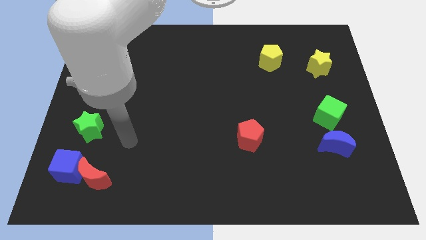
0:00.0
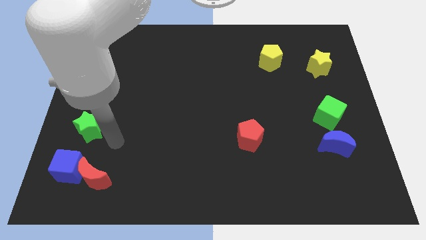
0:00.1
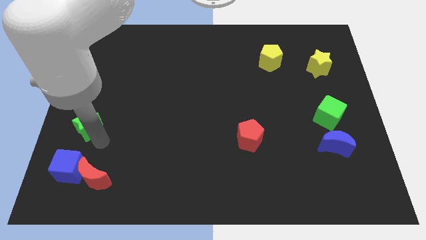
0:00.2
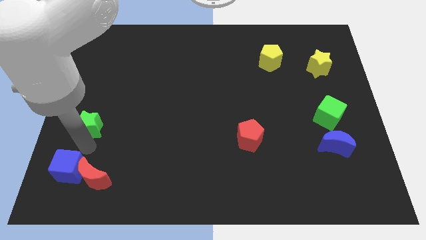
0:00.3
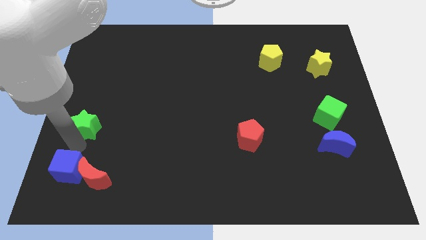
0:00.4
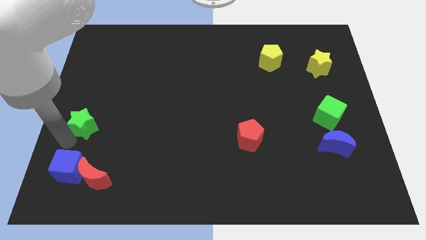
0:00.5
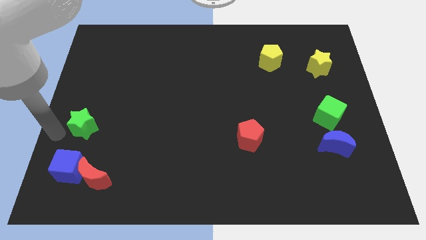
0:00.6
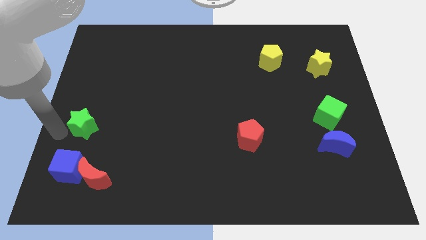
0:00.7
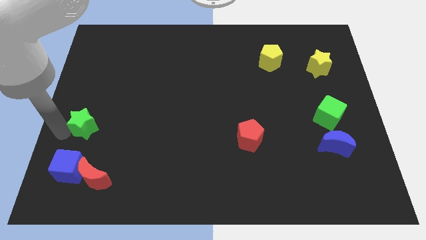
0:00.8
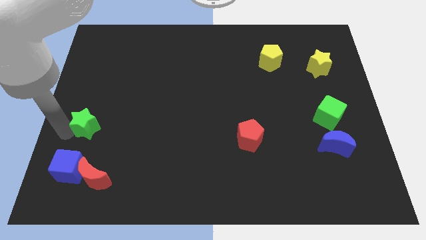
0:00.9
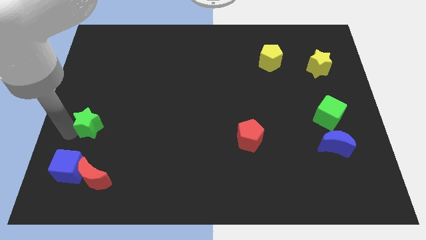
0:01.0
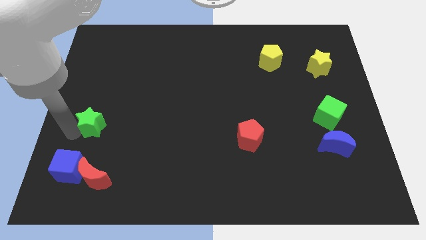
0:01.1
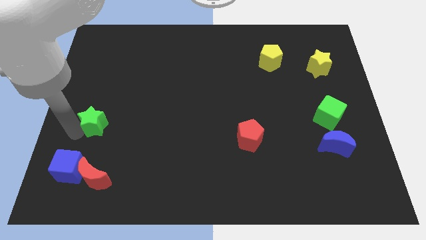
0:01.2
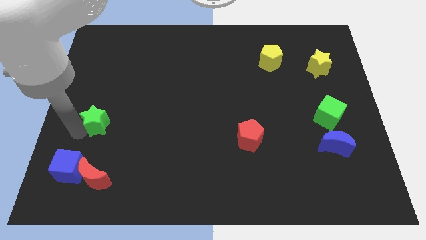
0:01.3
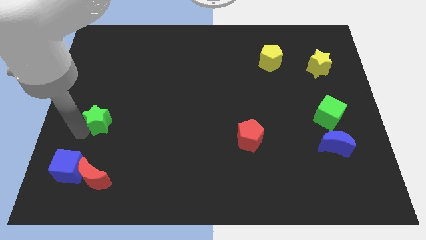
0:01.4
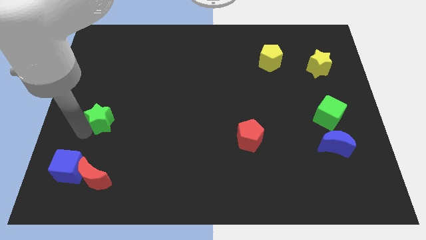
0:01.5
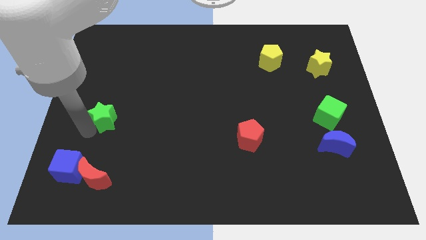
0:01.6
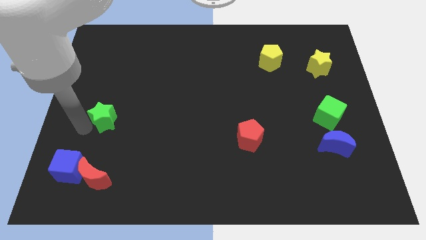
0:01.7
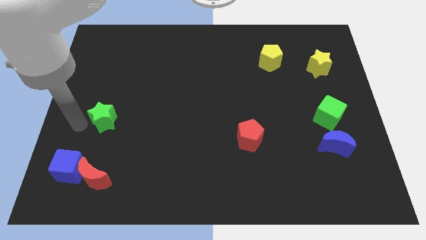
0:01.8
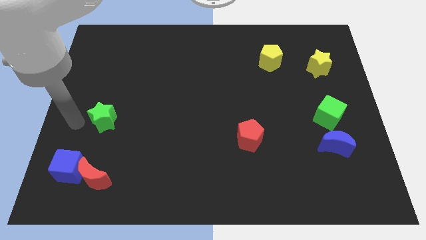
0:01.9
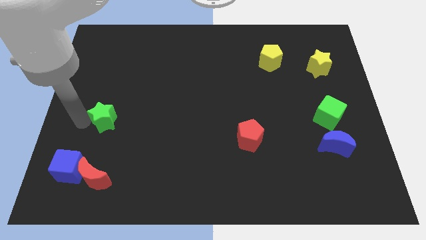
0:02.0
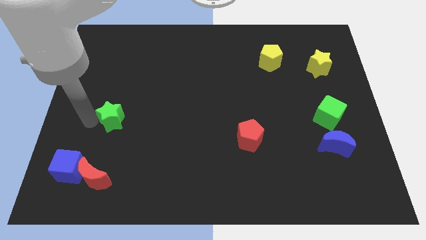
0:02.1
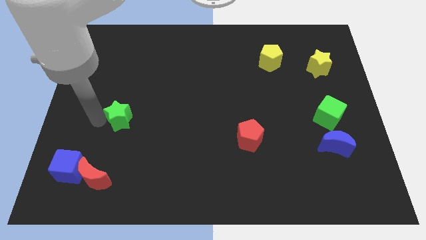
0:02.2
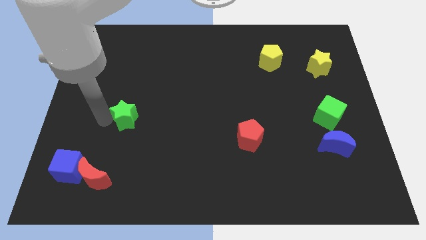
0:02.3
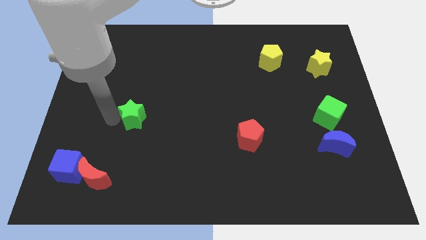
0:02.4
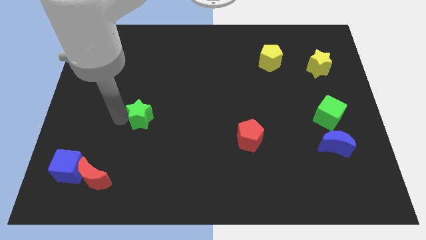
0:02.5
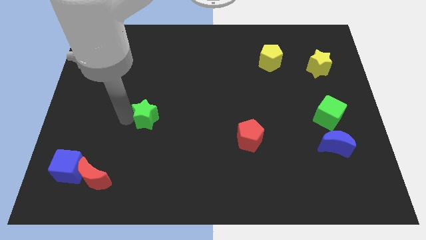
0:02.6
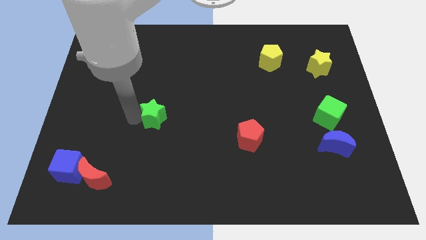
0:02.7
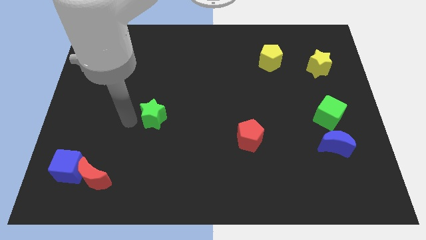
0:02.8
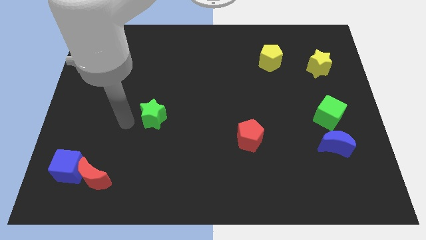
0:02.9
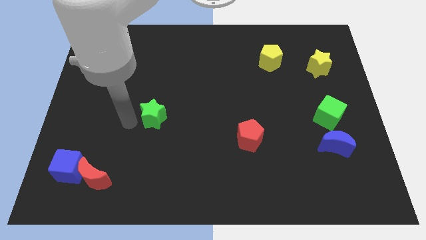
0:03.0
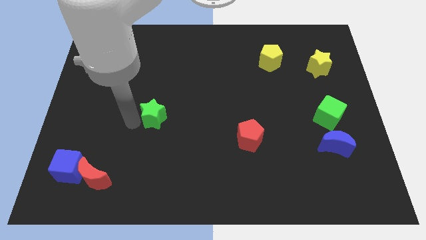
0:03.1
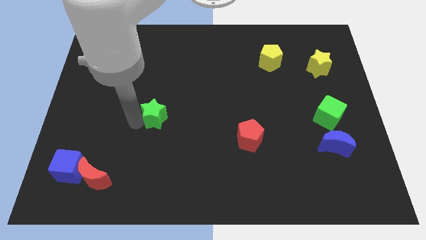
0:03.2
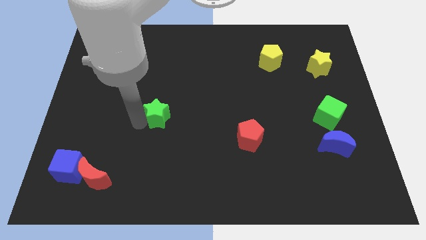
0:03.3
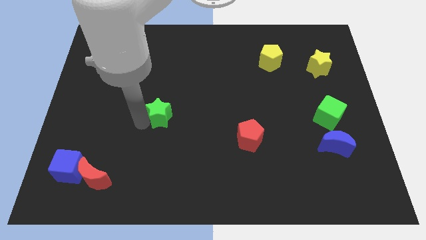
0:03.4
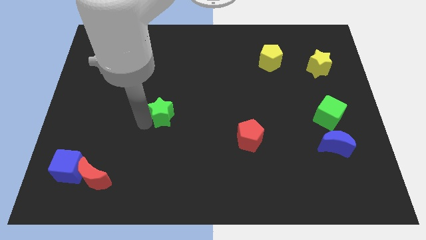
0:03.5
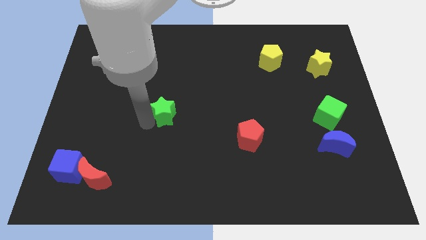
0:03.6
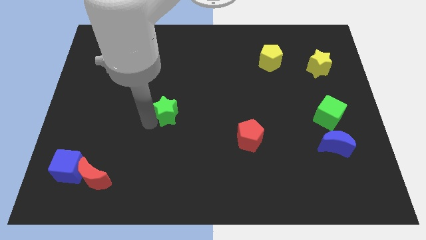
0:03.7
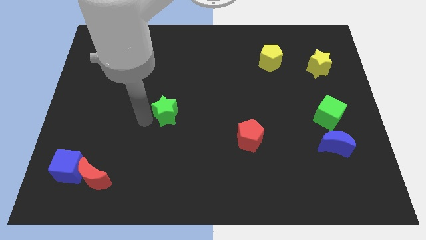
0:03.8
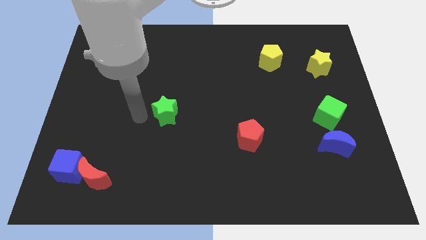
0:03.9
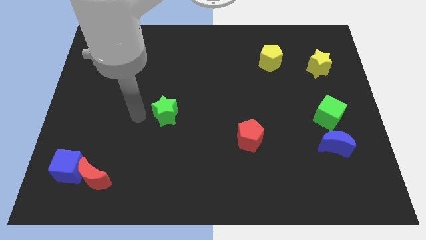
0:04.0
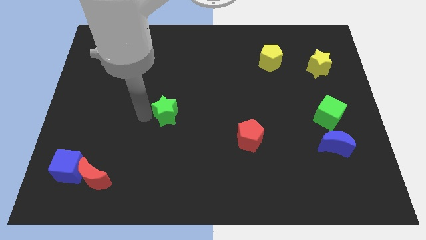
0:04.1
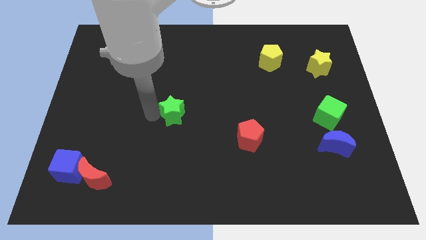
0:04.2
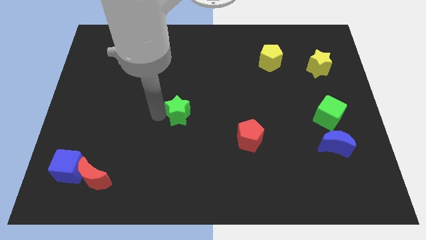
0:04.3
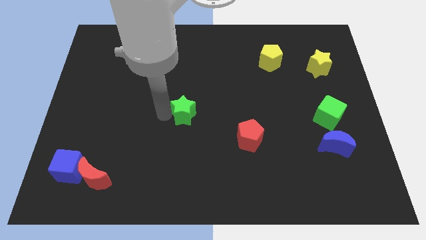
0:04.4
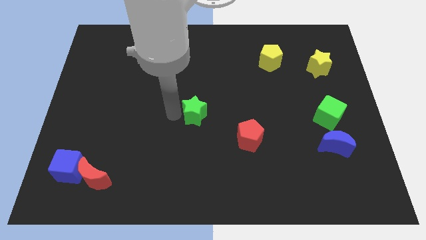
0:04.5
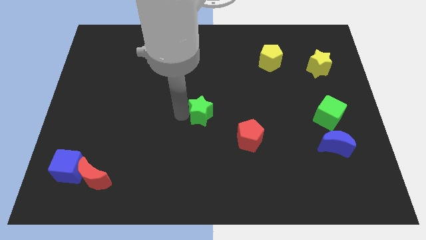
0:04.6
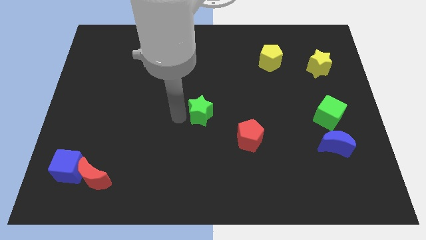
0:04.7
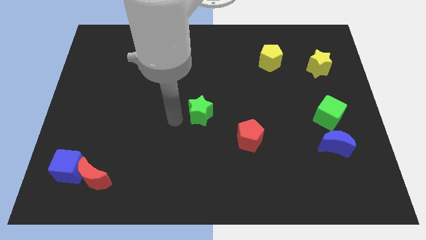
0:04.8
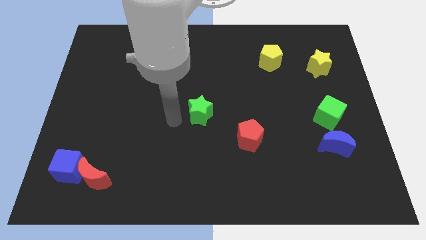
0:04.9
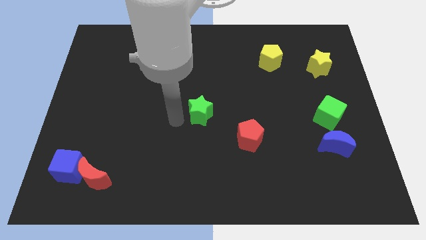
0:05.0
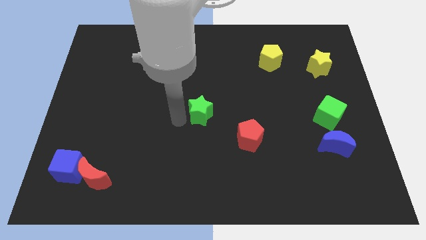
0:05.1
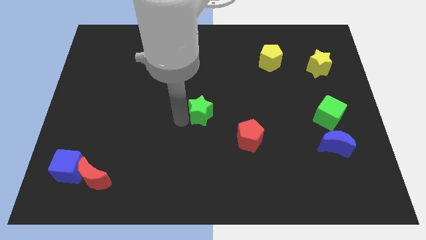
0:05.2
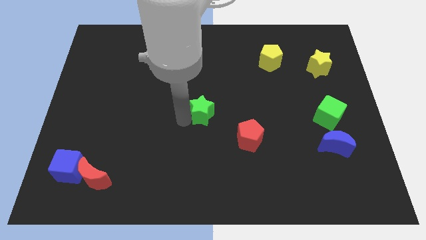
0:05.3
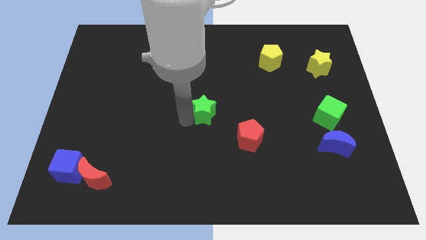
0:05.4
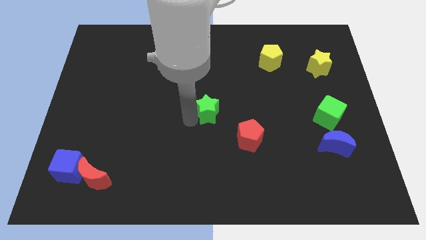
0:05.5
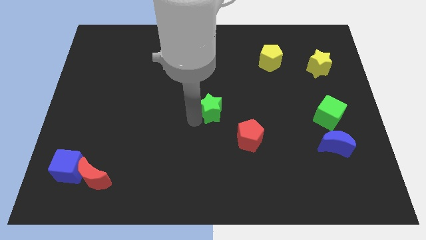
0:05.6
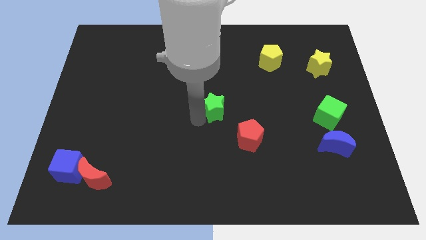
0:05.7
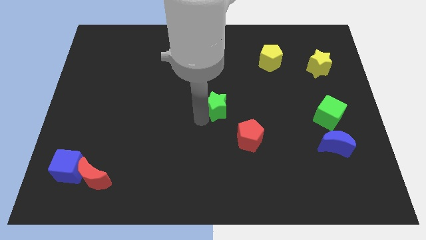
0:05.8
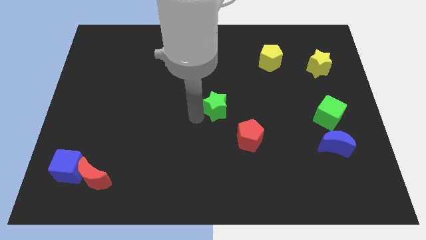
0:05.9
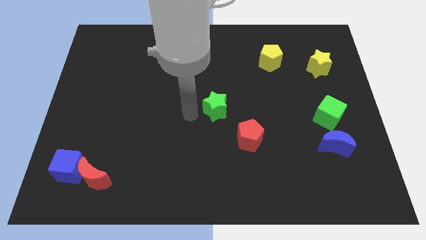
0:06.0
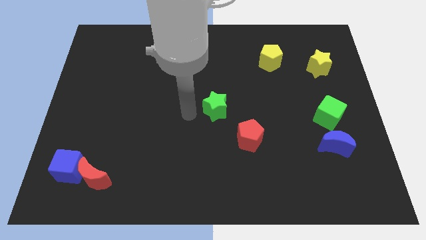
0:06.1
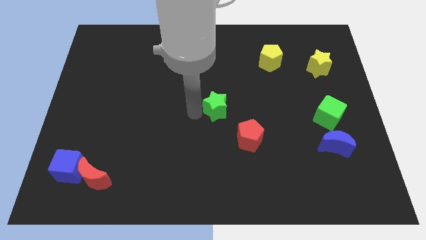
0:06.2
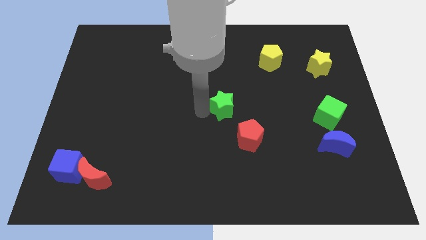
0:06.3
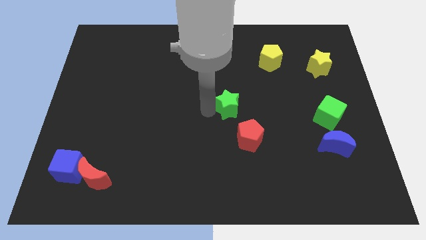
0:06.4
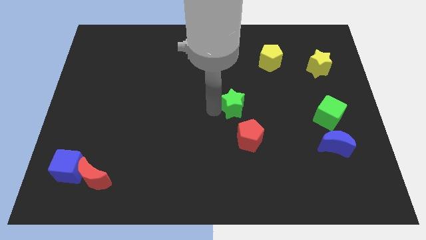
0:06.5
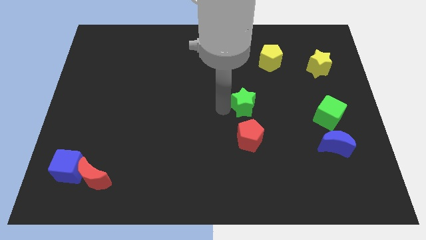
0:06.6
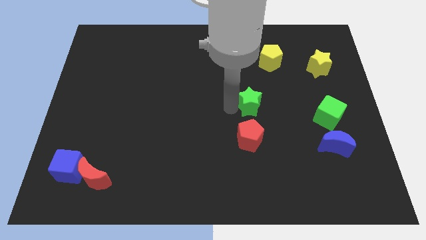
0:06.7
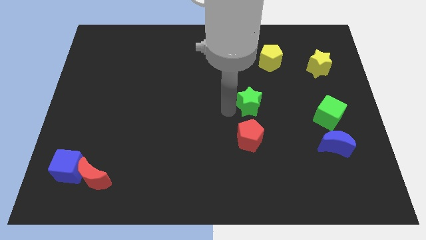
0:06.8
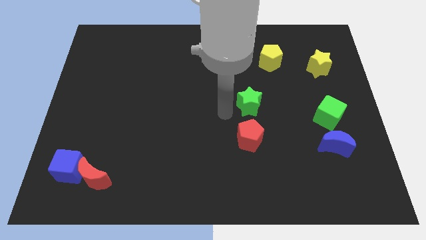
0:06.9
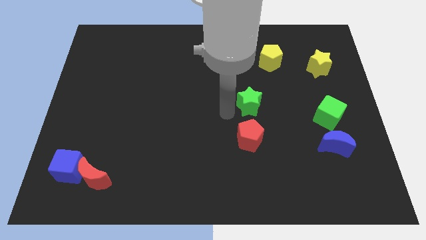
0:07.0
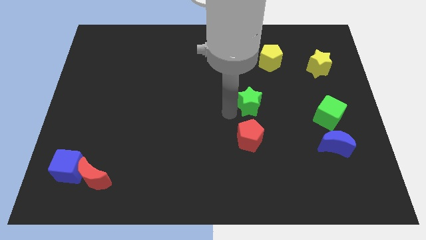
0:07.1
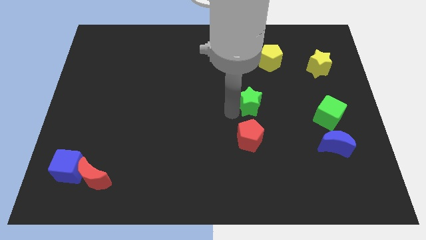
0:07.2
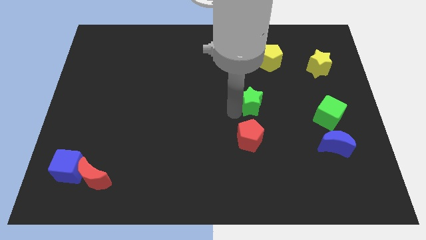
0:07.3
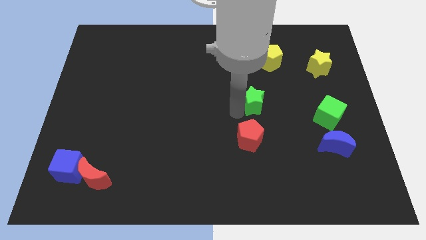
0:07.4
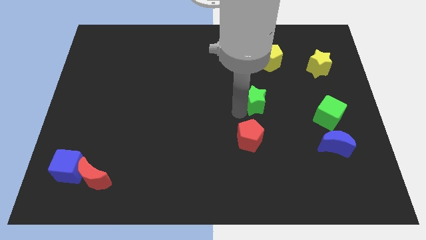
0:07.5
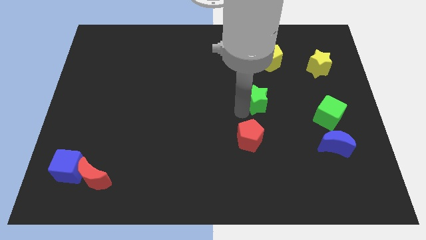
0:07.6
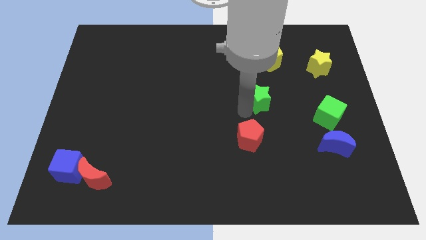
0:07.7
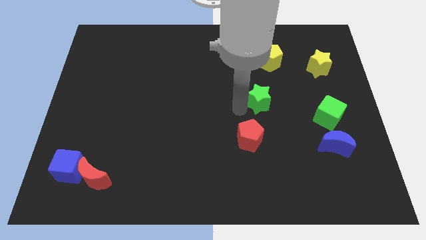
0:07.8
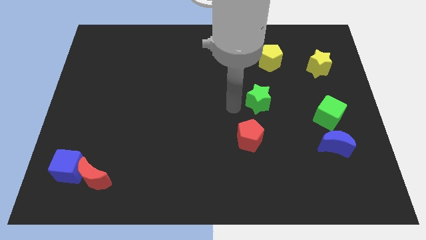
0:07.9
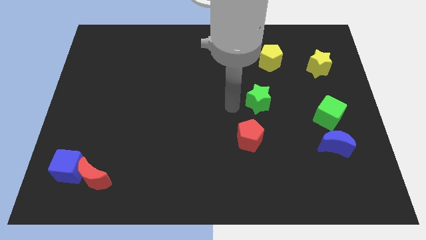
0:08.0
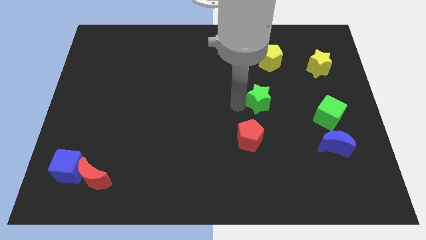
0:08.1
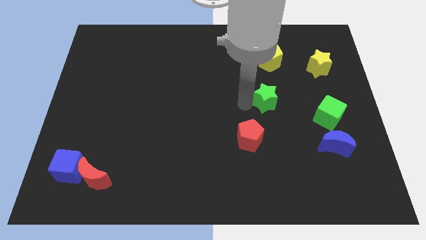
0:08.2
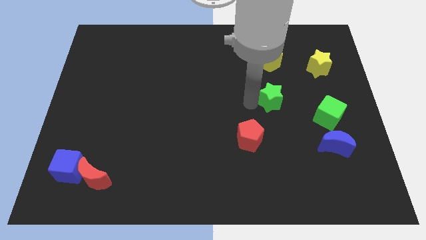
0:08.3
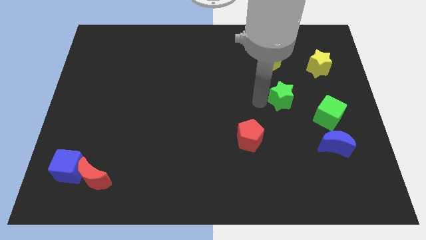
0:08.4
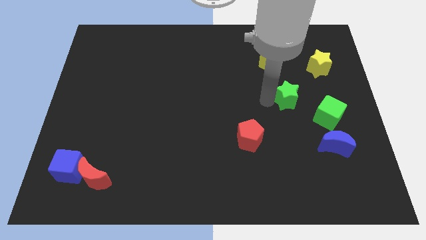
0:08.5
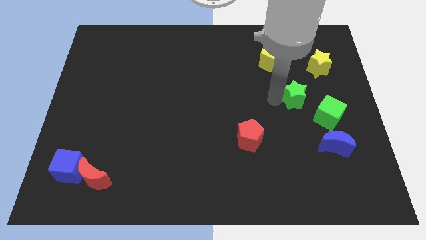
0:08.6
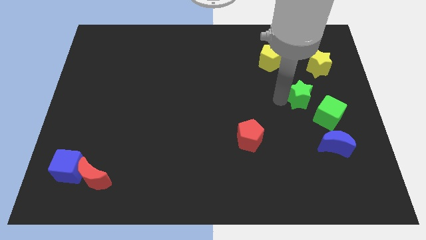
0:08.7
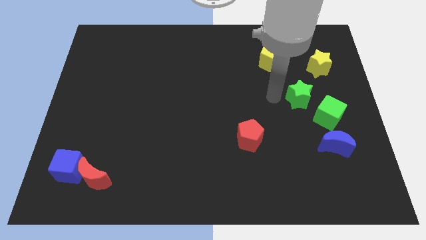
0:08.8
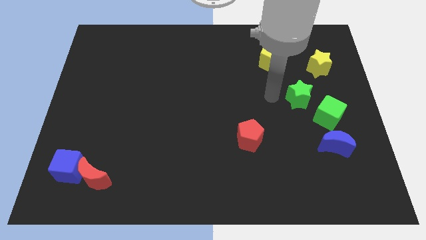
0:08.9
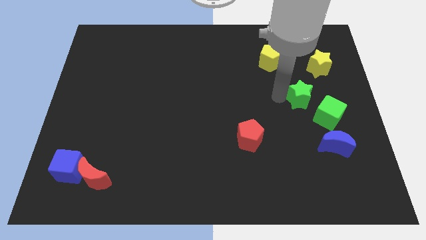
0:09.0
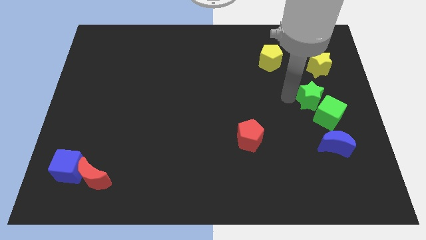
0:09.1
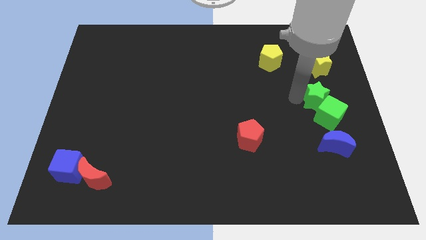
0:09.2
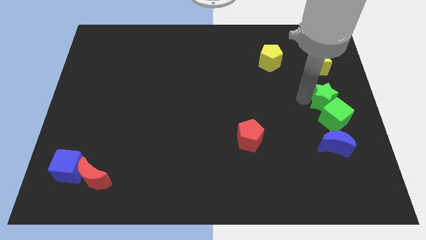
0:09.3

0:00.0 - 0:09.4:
push the green star to the center right
